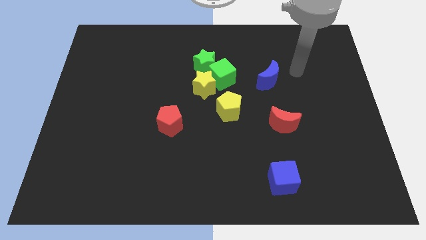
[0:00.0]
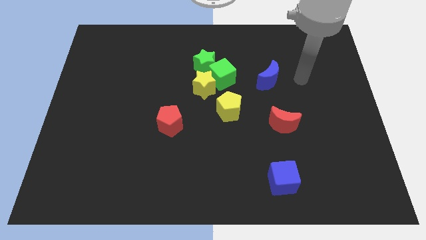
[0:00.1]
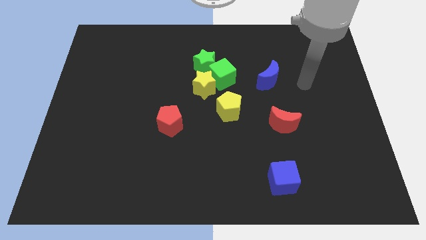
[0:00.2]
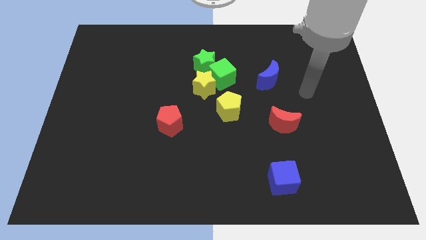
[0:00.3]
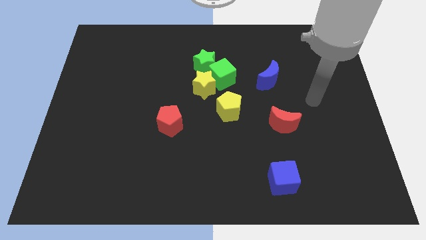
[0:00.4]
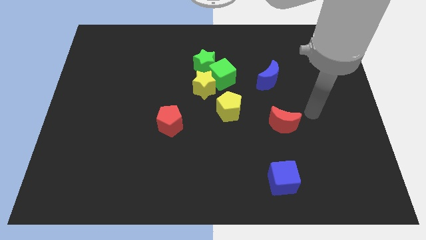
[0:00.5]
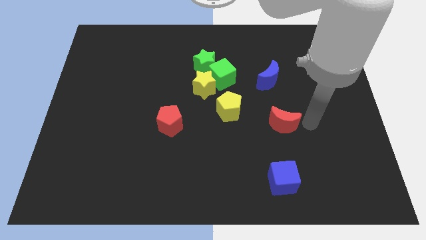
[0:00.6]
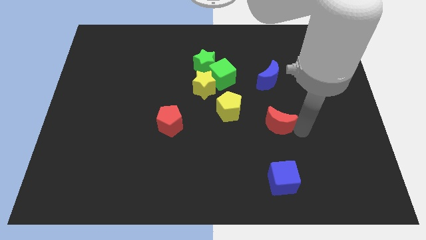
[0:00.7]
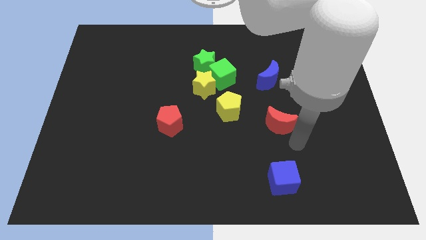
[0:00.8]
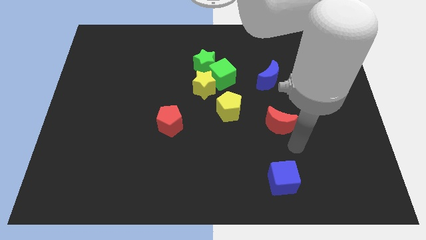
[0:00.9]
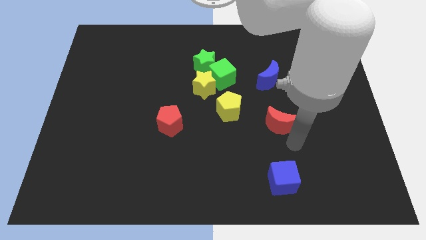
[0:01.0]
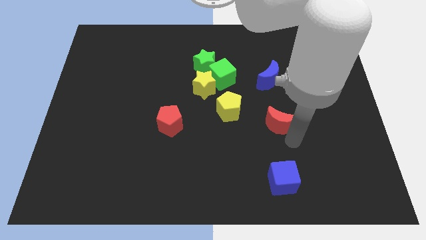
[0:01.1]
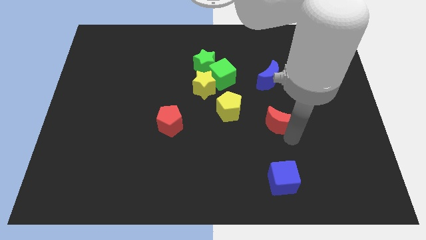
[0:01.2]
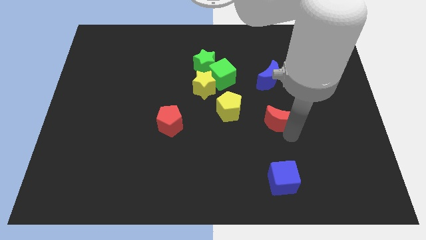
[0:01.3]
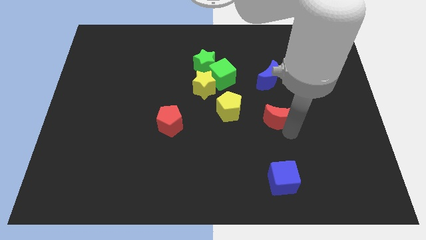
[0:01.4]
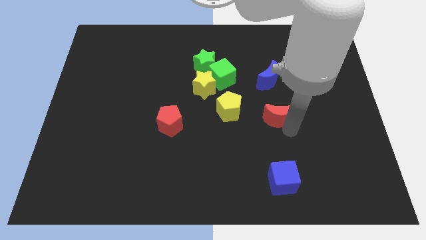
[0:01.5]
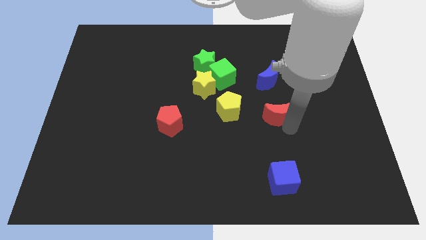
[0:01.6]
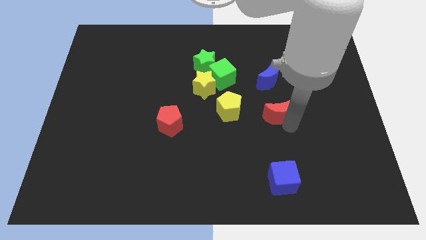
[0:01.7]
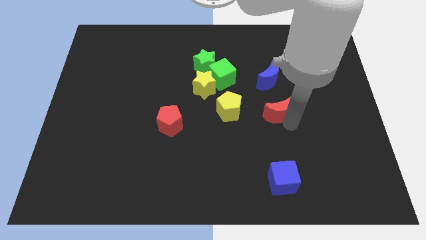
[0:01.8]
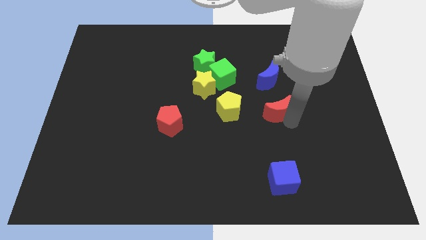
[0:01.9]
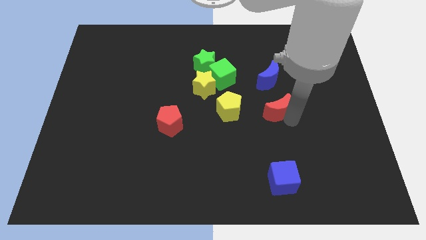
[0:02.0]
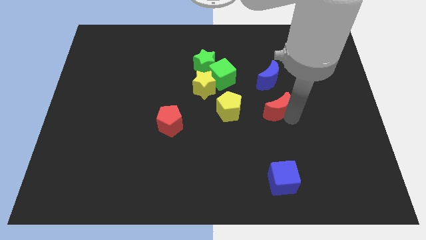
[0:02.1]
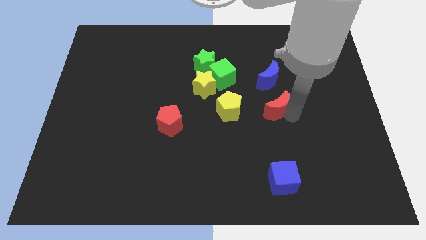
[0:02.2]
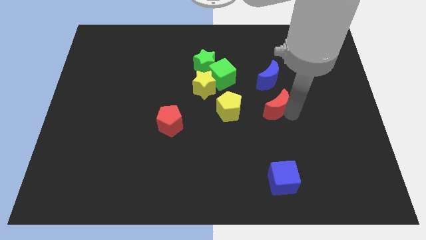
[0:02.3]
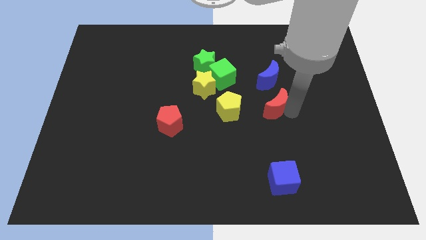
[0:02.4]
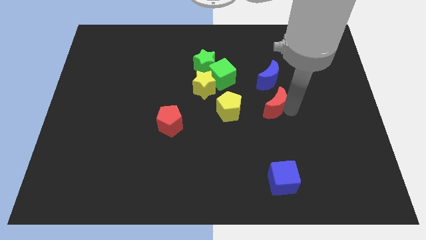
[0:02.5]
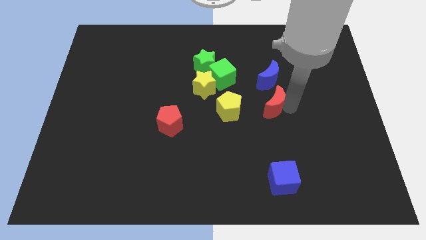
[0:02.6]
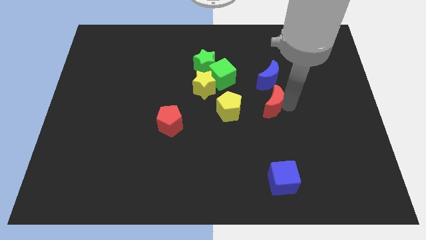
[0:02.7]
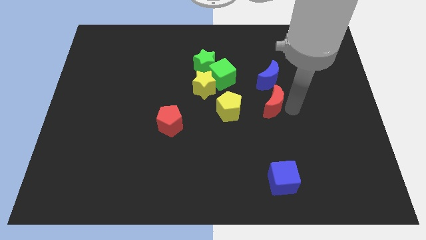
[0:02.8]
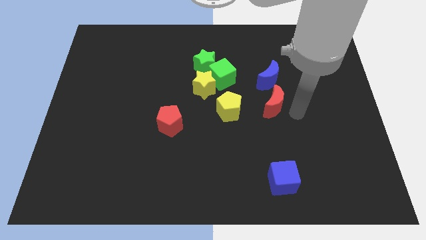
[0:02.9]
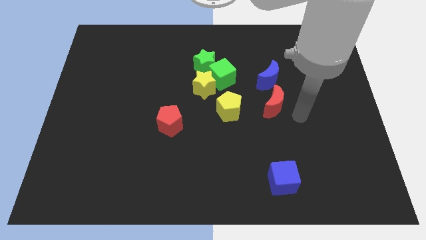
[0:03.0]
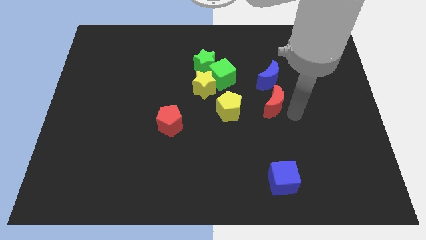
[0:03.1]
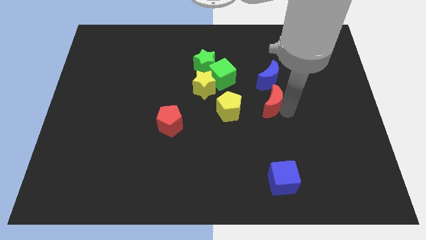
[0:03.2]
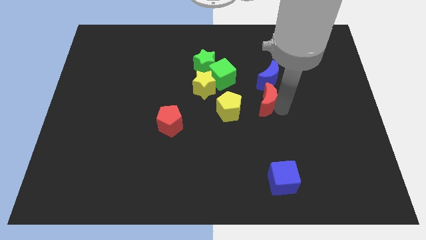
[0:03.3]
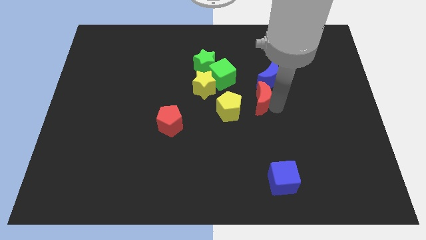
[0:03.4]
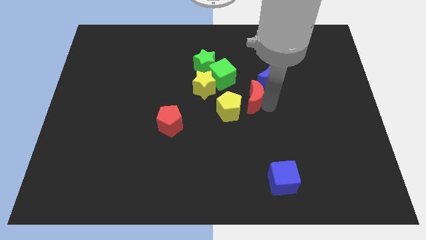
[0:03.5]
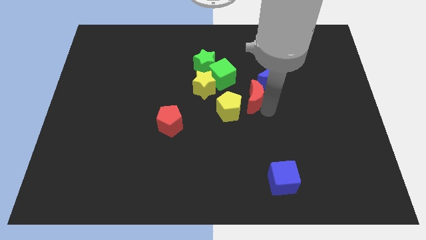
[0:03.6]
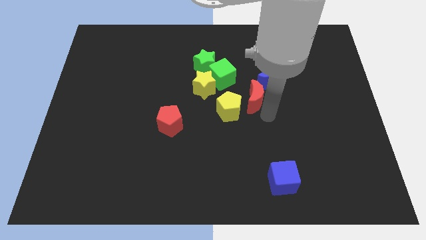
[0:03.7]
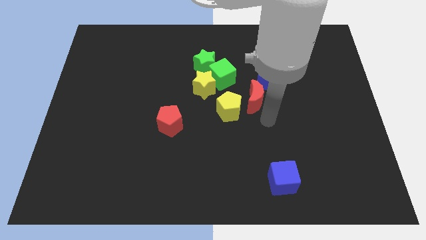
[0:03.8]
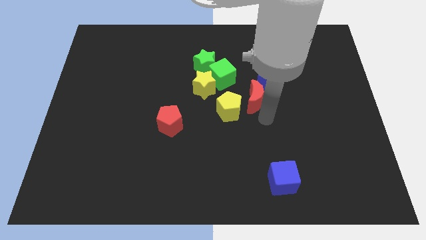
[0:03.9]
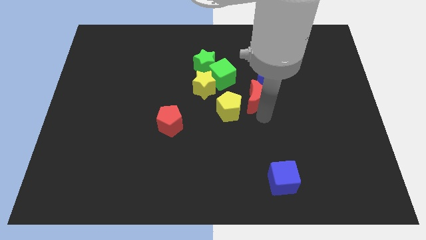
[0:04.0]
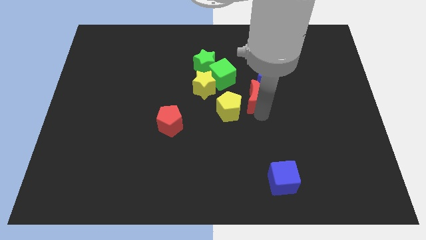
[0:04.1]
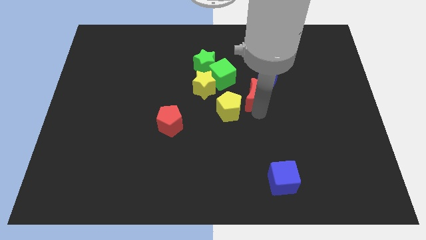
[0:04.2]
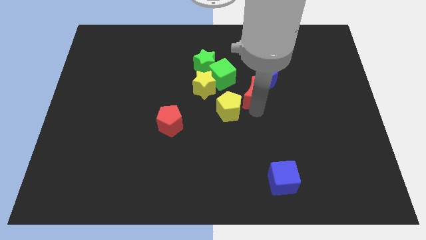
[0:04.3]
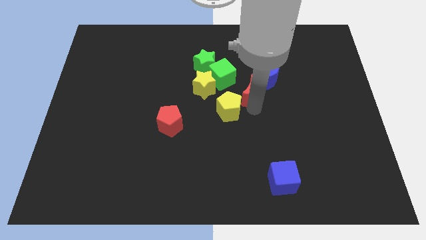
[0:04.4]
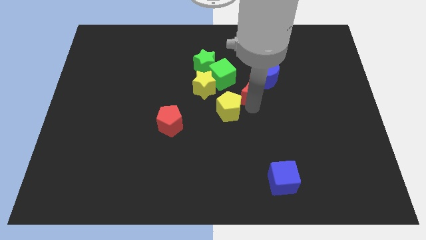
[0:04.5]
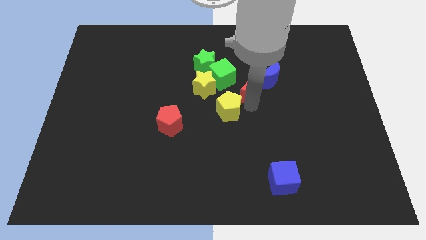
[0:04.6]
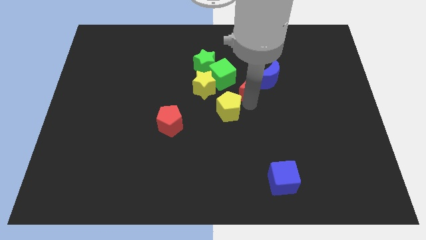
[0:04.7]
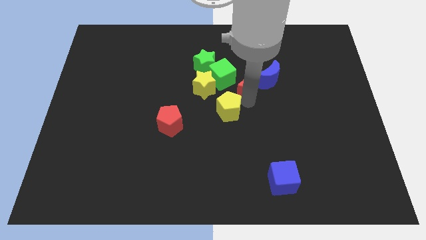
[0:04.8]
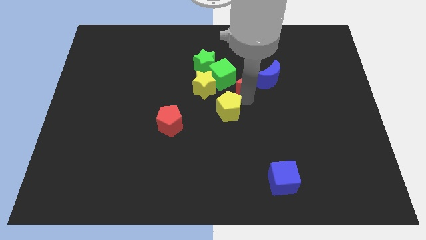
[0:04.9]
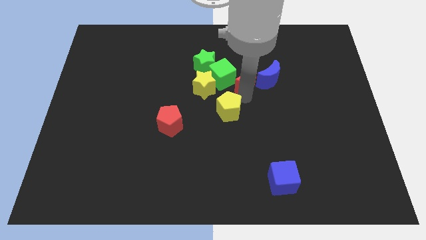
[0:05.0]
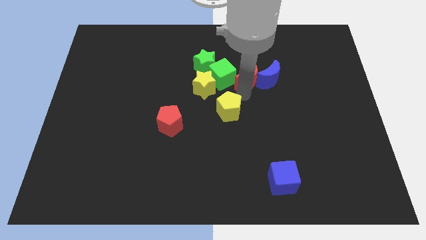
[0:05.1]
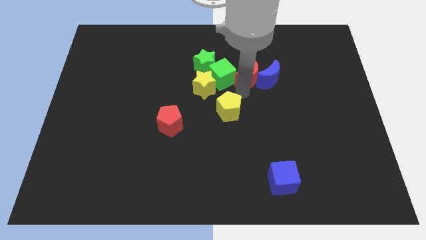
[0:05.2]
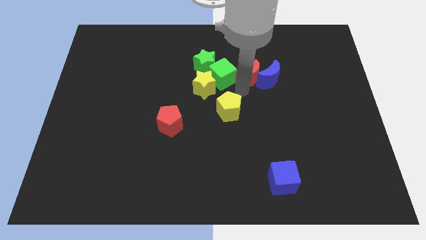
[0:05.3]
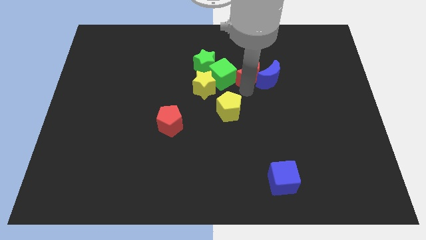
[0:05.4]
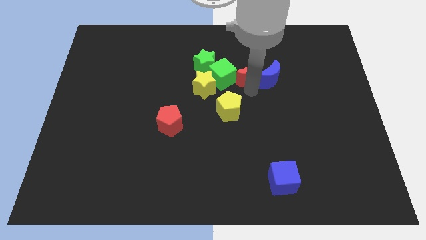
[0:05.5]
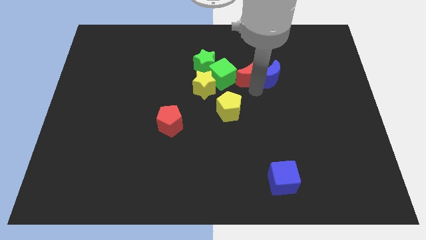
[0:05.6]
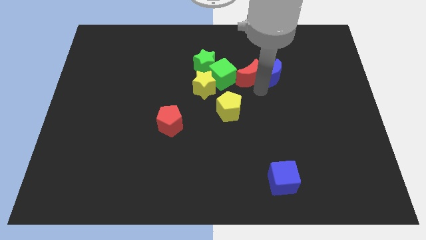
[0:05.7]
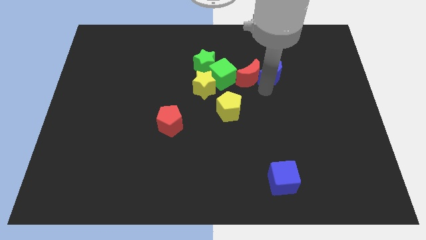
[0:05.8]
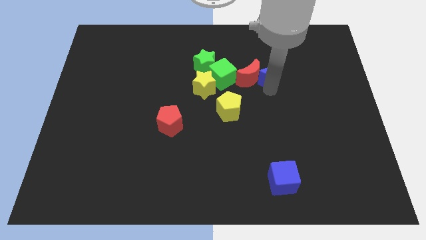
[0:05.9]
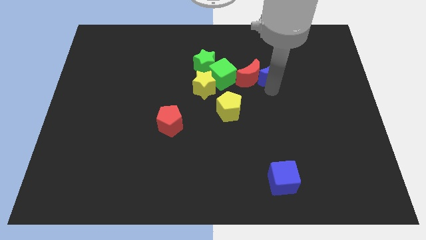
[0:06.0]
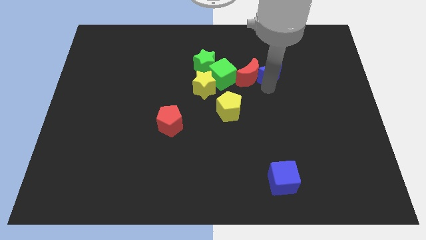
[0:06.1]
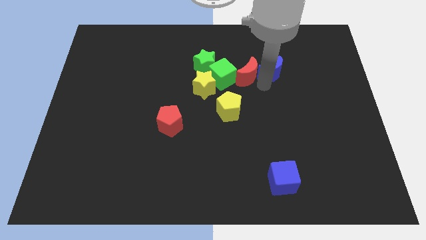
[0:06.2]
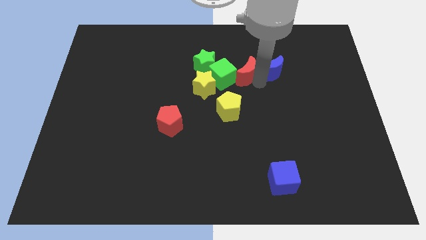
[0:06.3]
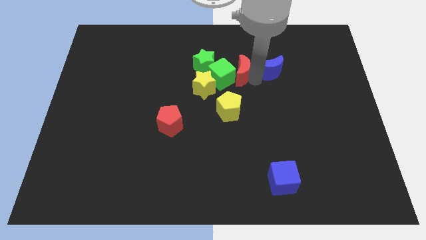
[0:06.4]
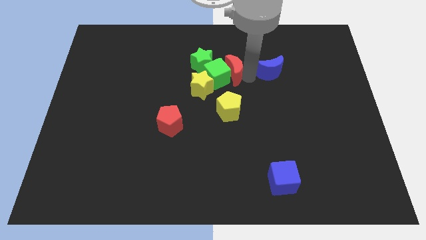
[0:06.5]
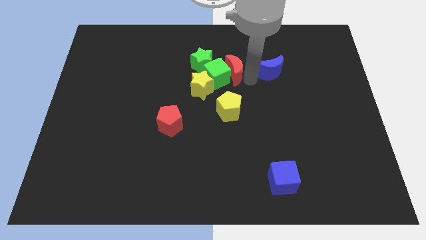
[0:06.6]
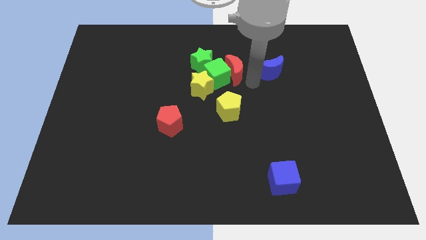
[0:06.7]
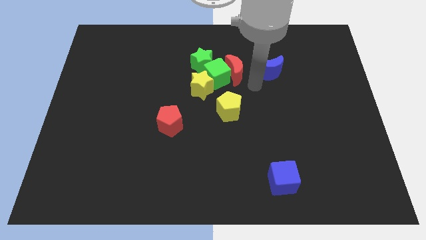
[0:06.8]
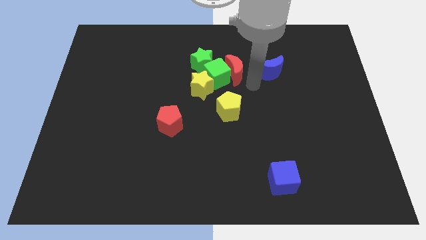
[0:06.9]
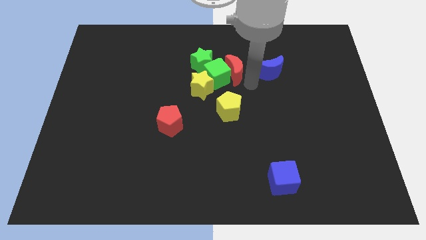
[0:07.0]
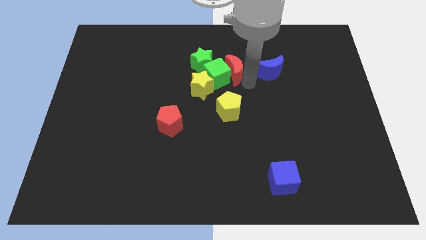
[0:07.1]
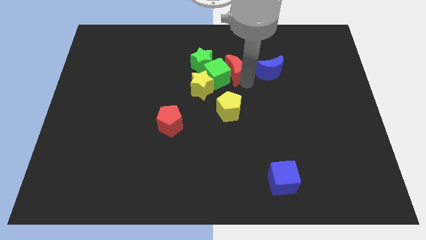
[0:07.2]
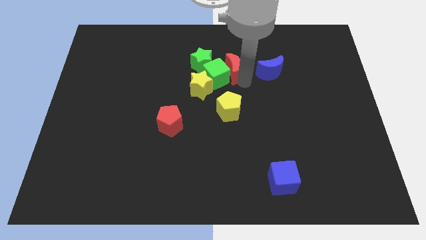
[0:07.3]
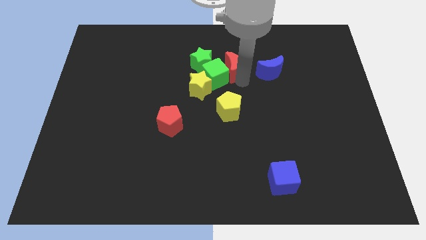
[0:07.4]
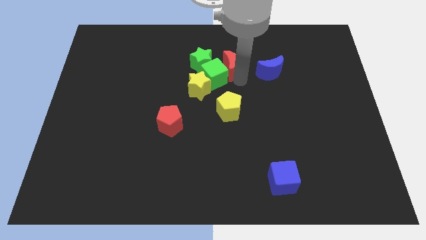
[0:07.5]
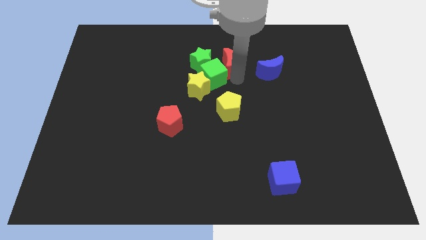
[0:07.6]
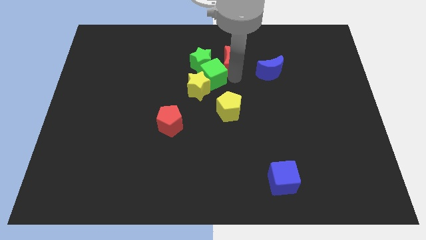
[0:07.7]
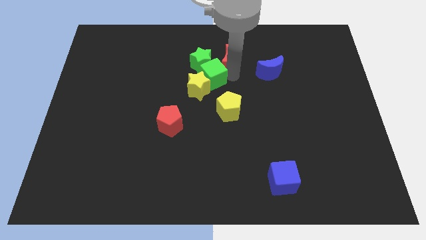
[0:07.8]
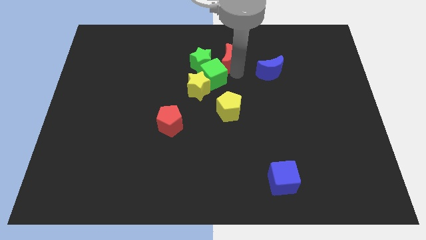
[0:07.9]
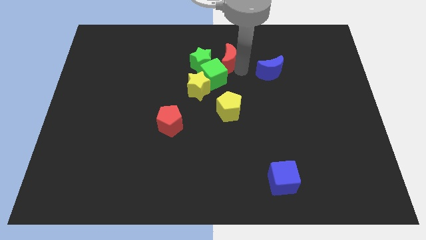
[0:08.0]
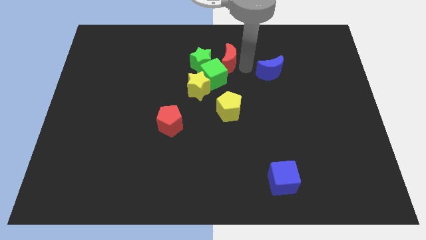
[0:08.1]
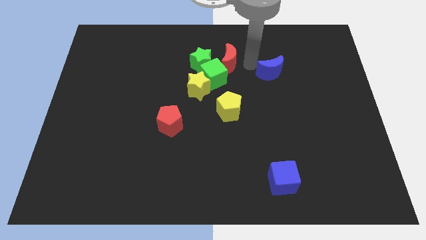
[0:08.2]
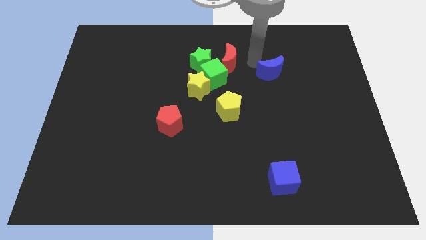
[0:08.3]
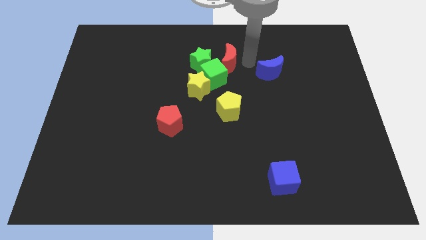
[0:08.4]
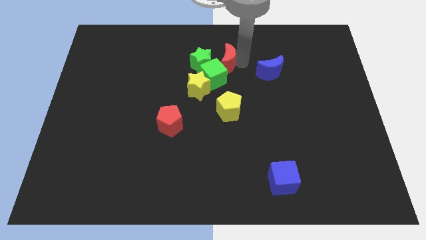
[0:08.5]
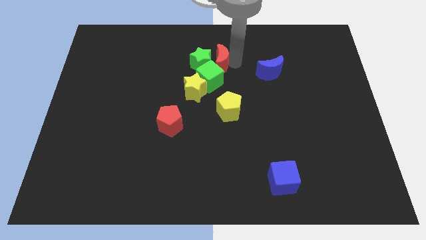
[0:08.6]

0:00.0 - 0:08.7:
put the red moon close to the green star
